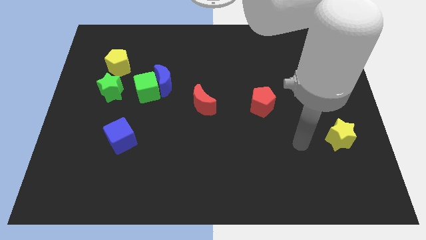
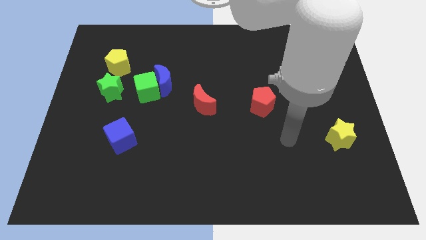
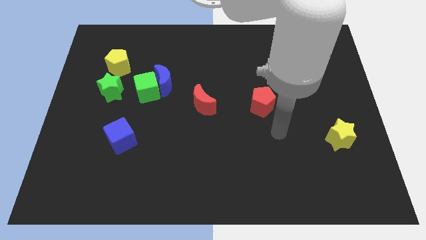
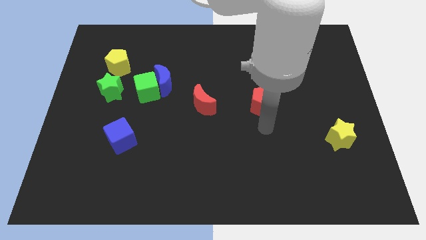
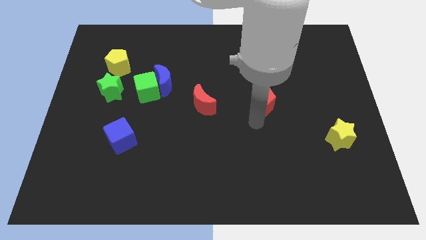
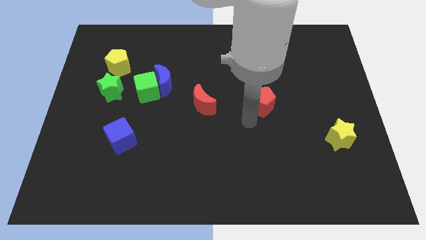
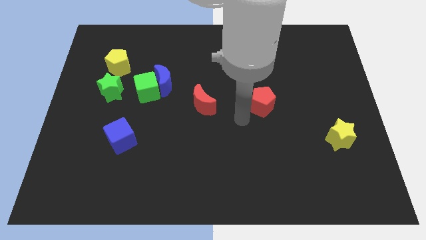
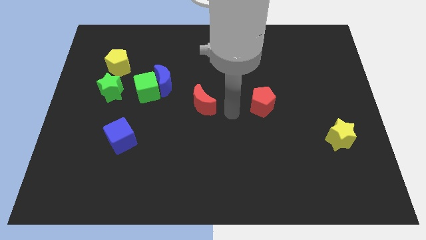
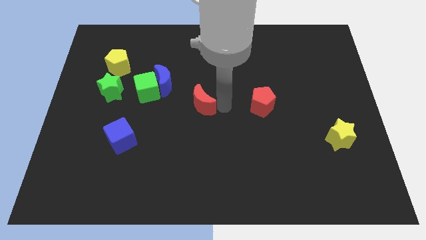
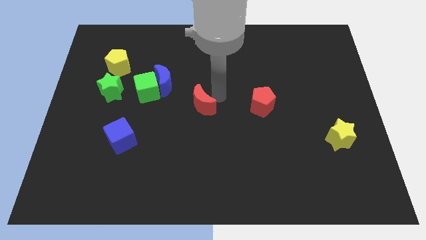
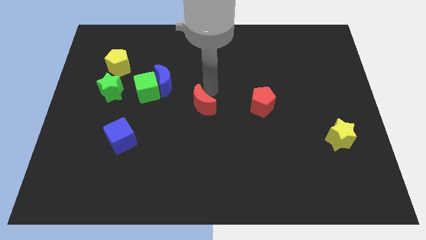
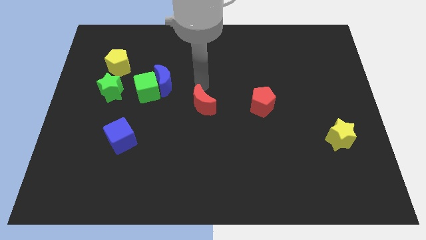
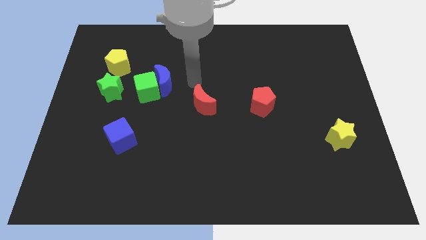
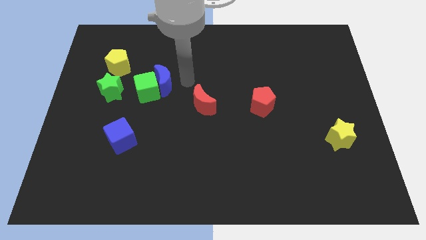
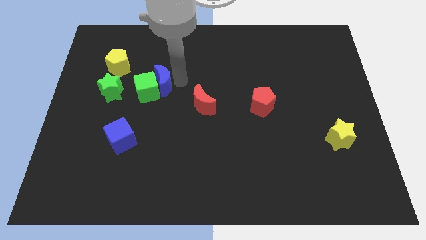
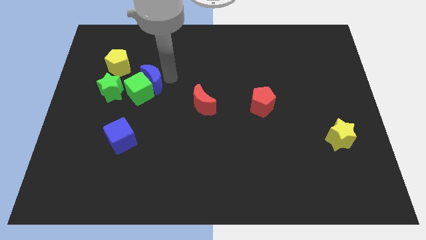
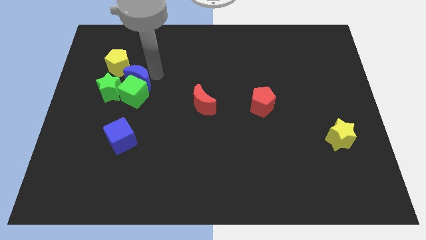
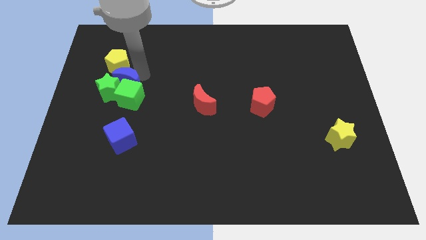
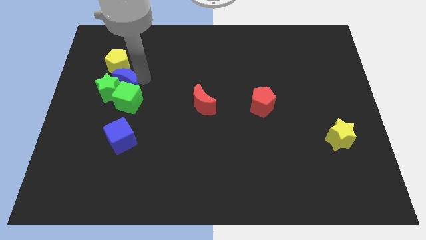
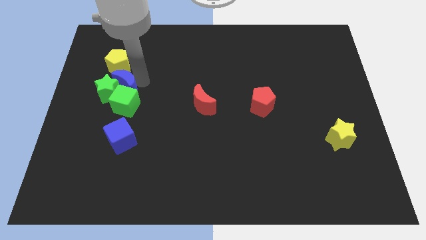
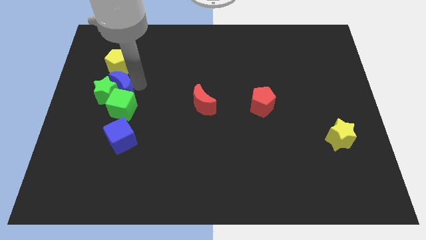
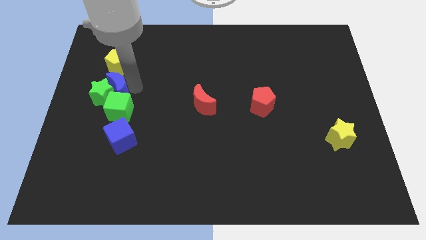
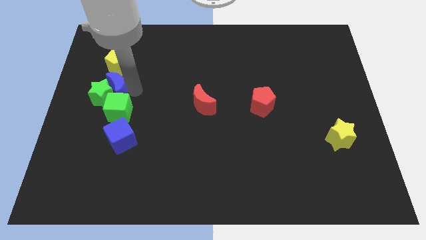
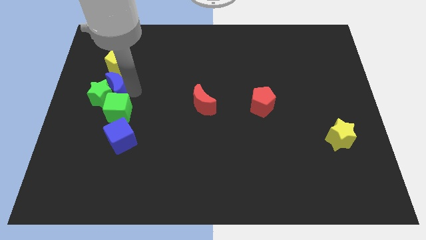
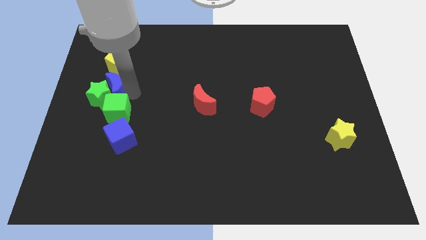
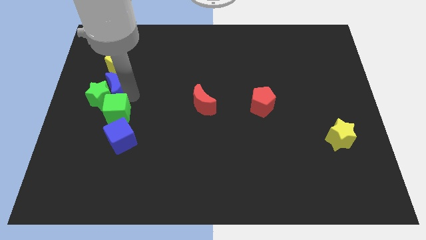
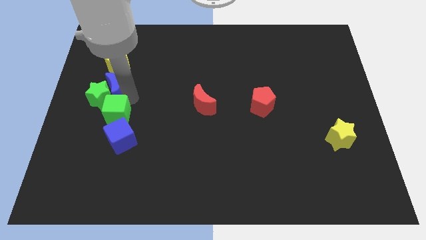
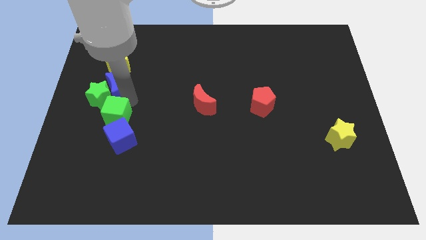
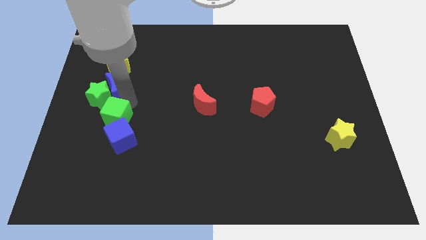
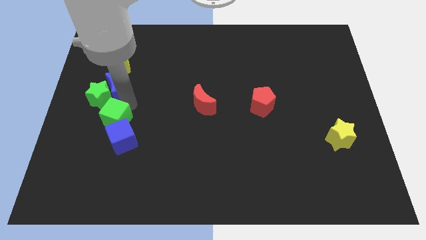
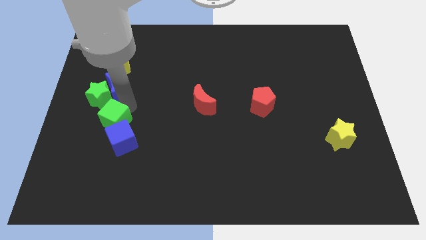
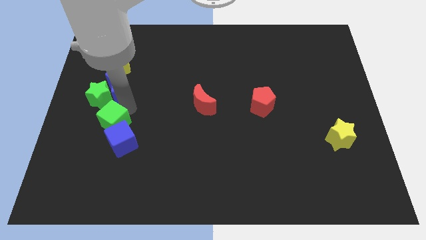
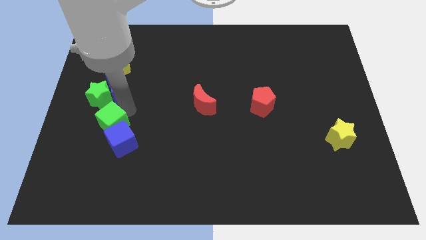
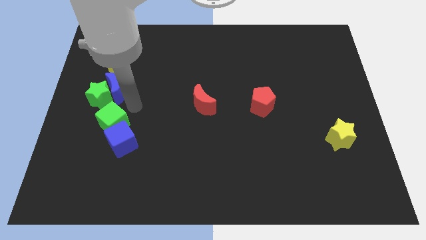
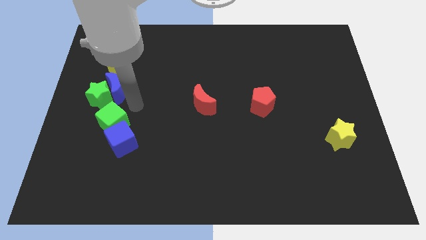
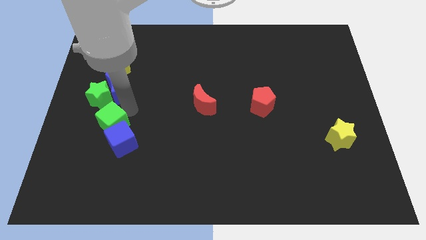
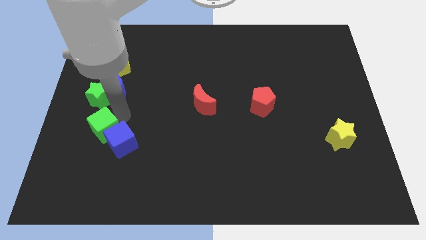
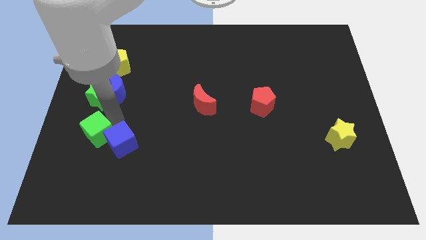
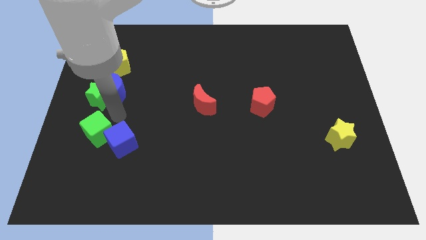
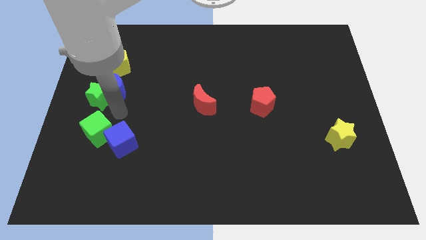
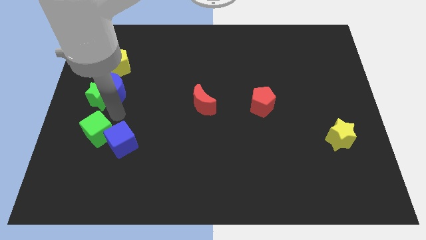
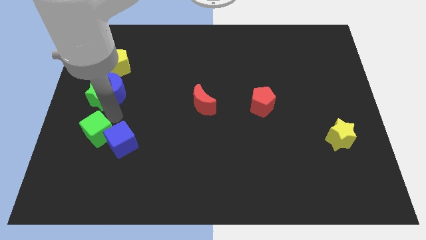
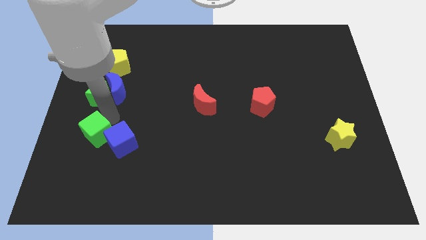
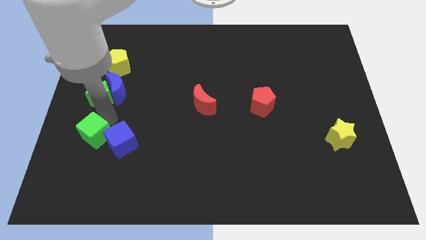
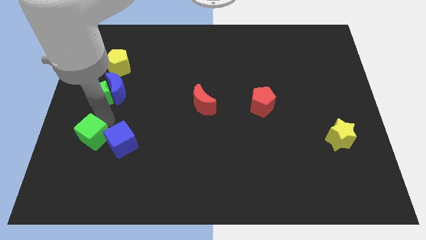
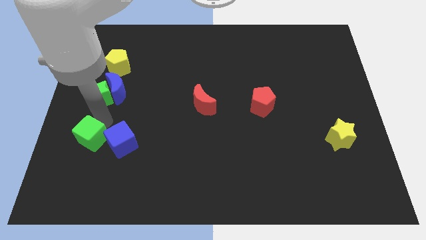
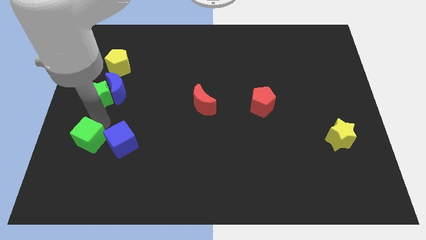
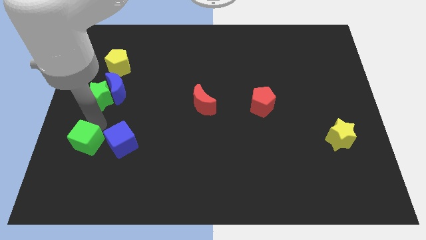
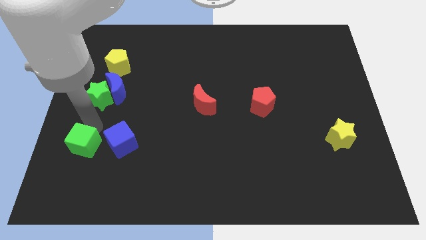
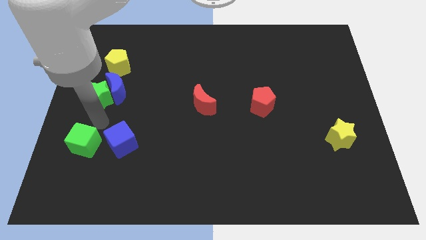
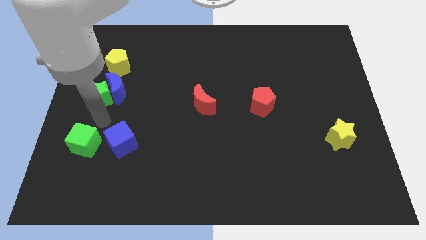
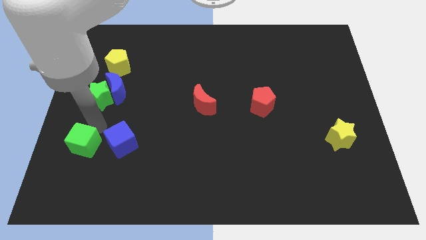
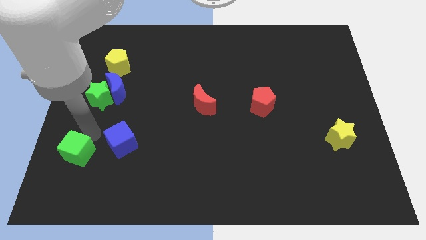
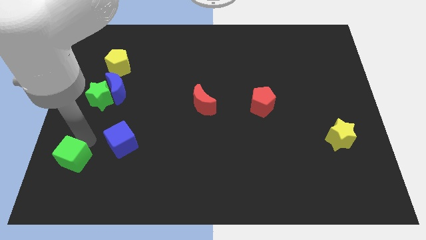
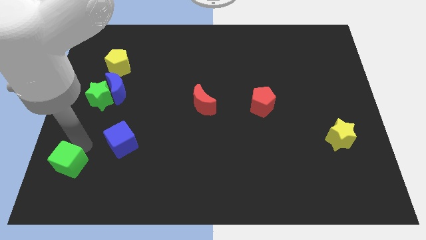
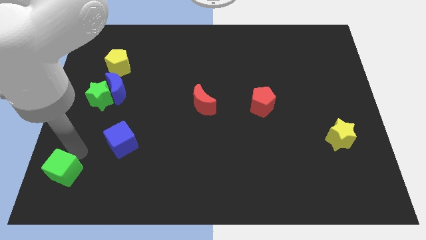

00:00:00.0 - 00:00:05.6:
move the green cube to the bottom left
